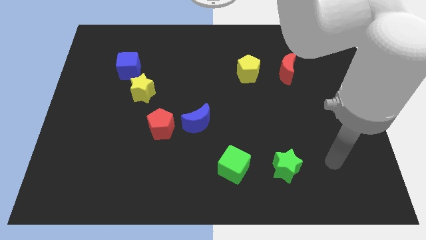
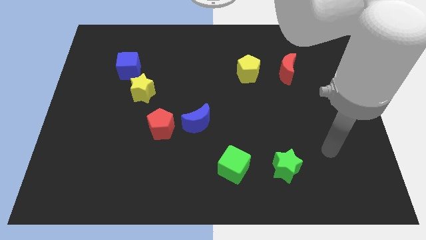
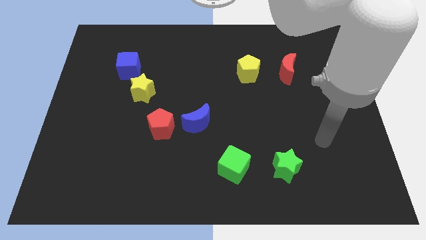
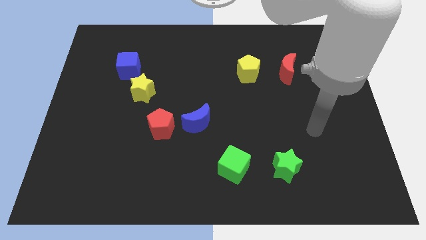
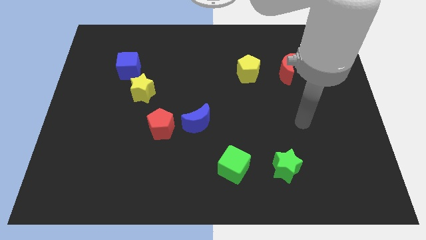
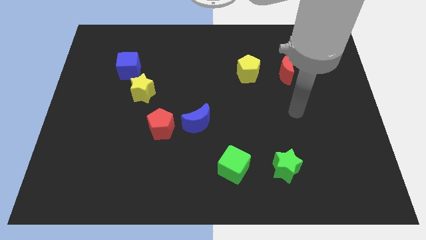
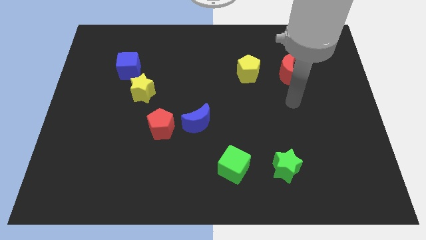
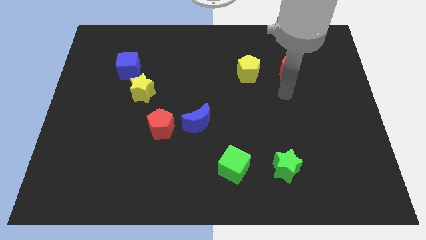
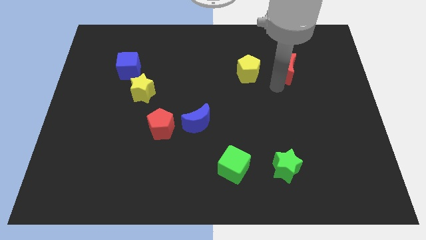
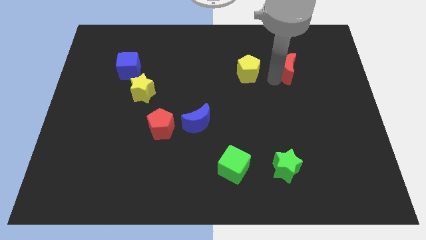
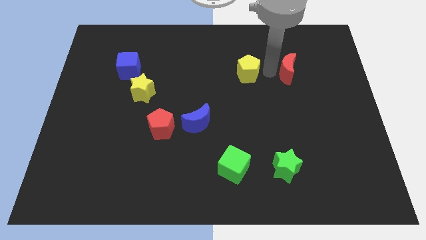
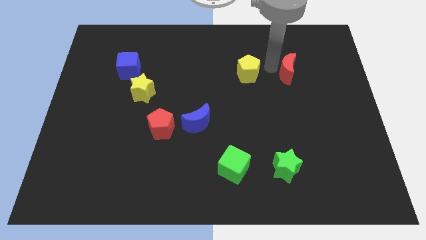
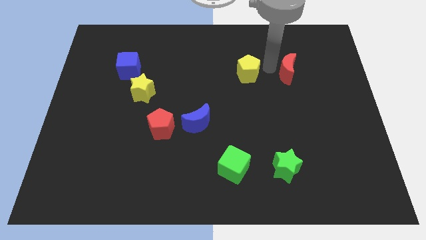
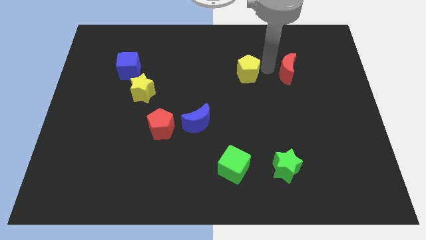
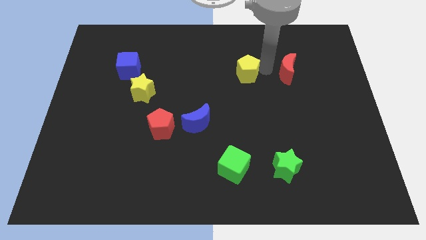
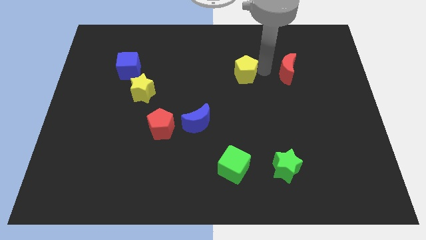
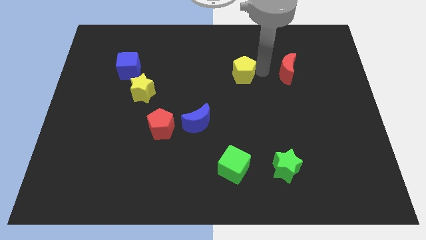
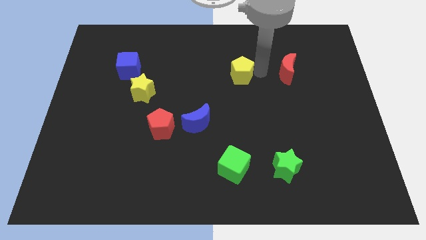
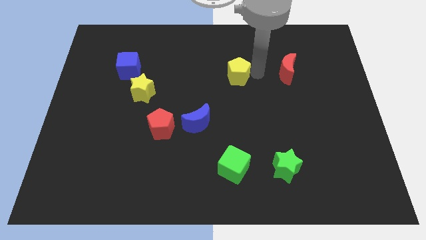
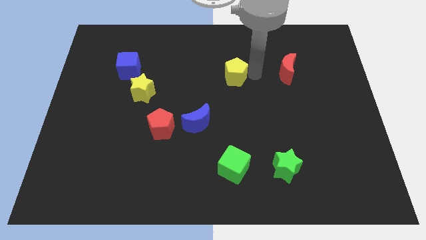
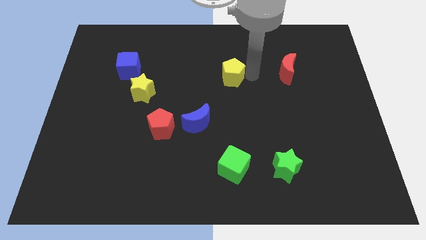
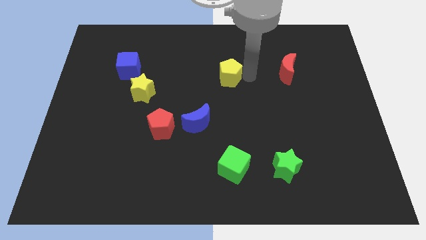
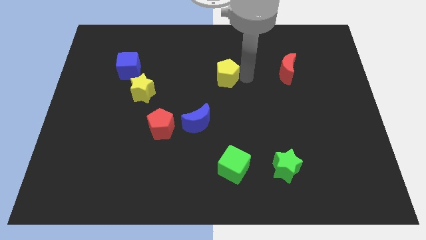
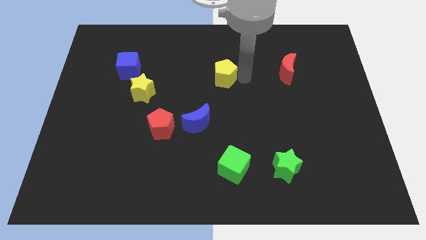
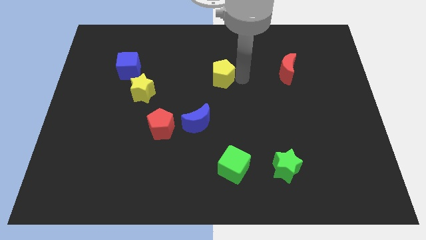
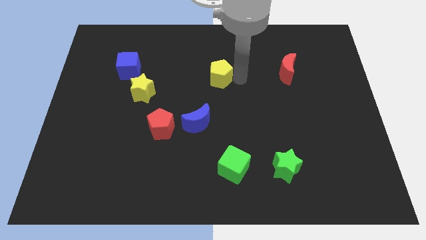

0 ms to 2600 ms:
slightly slide the yellow pentagon left

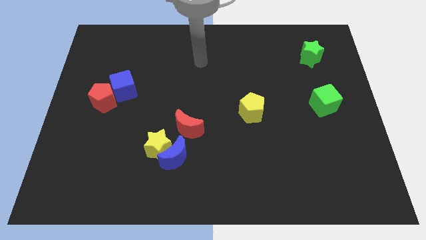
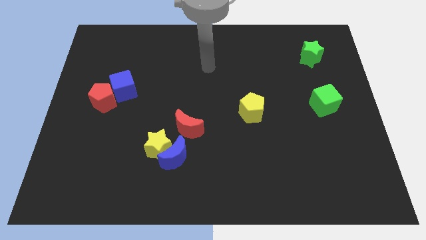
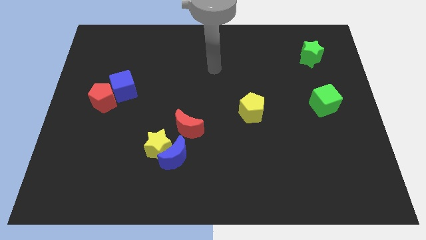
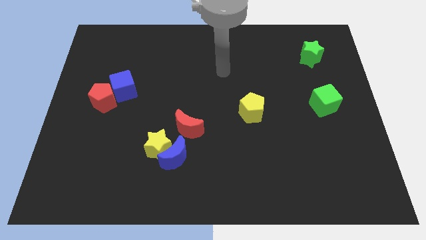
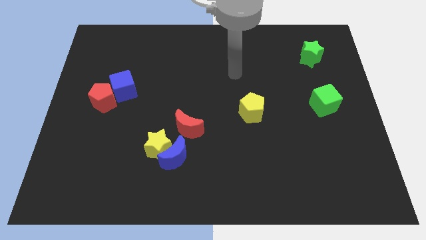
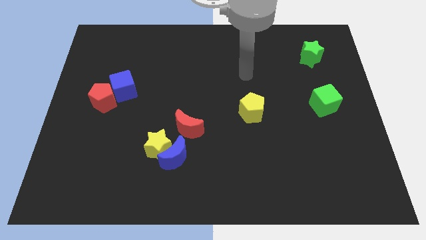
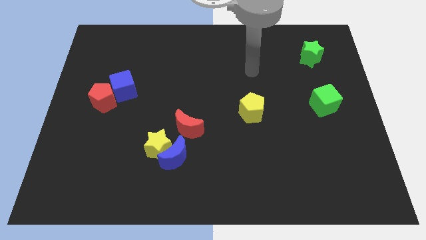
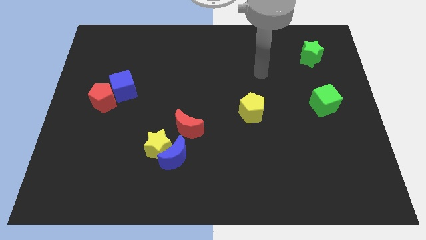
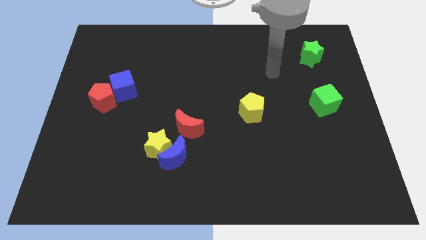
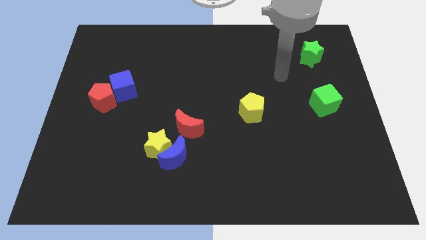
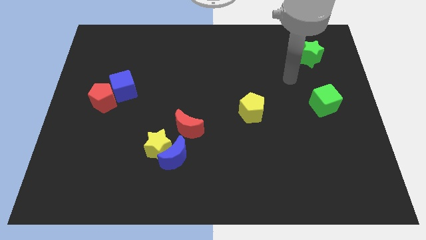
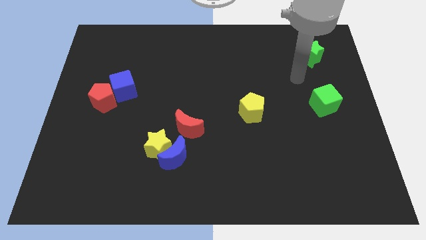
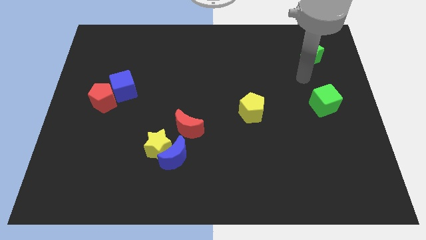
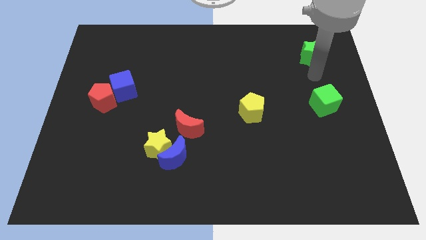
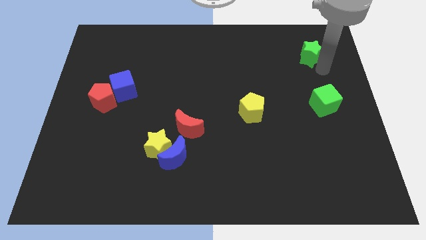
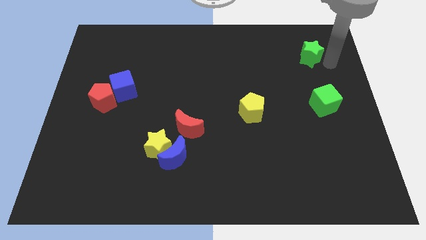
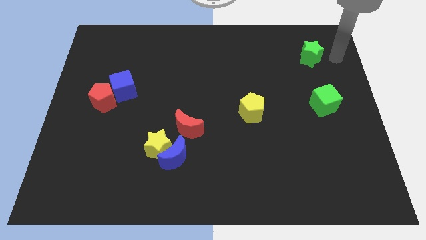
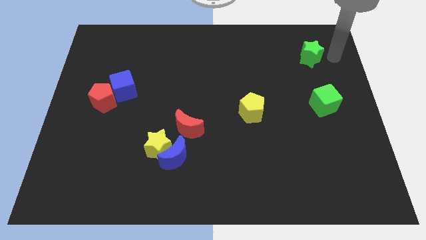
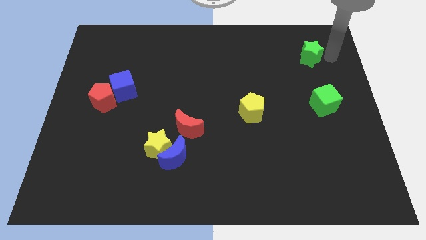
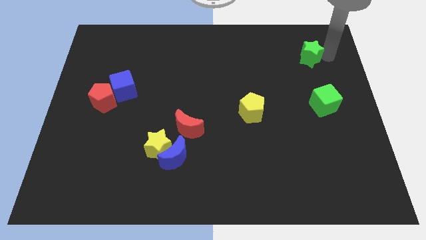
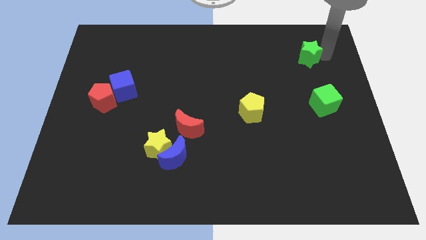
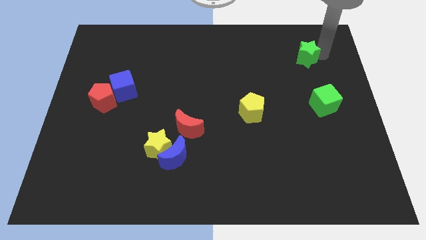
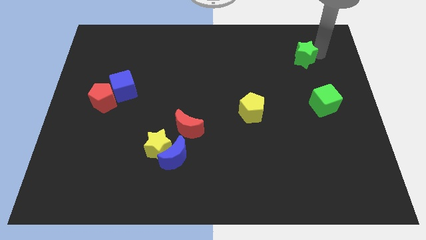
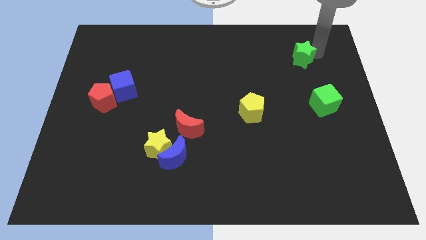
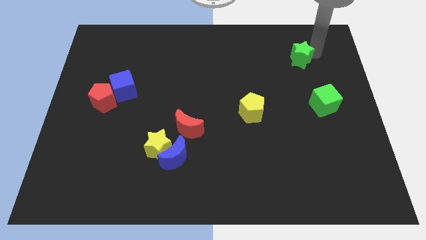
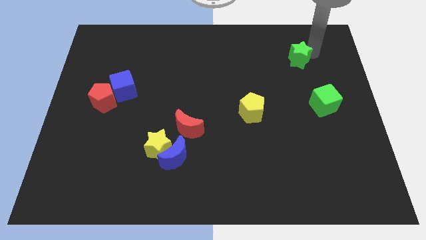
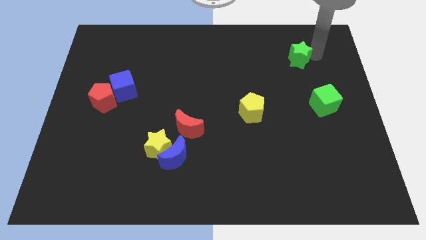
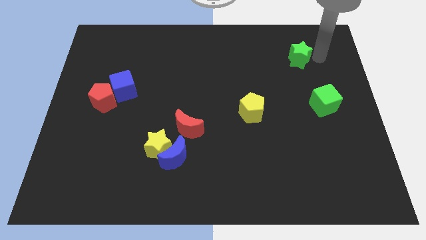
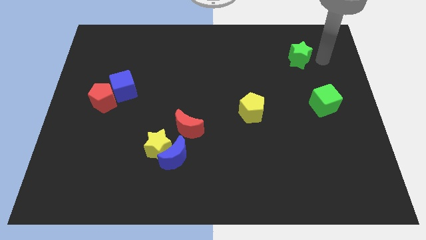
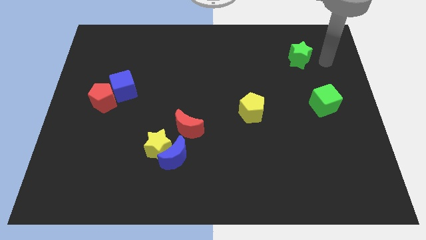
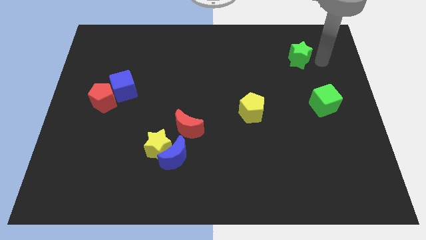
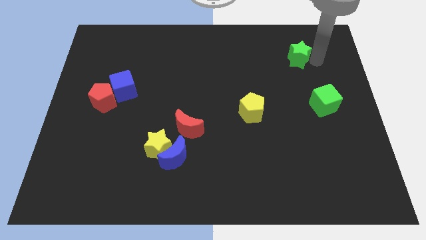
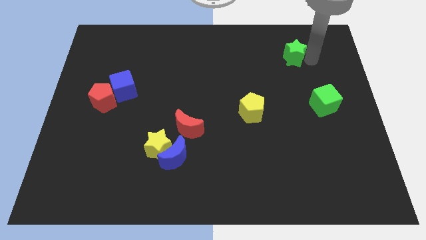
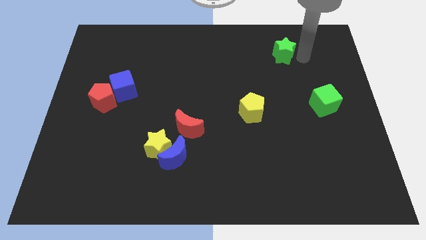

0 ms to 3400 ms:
slightly slide the green star left

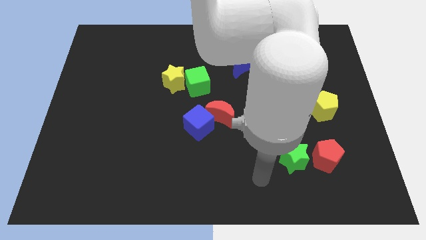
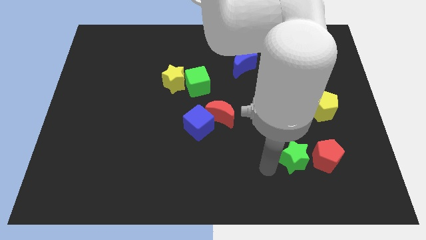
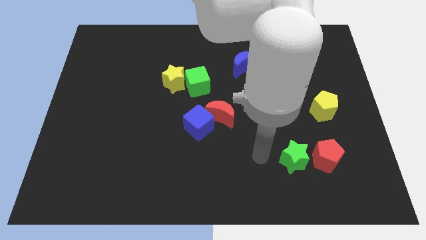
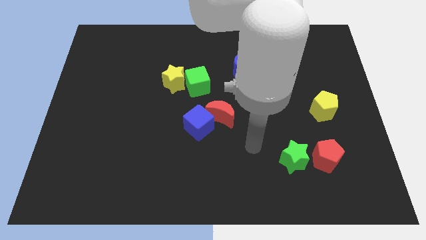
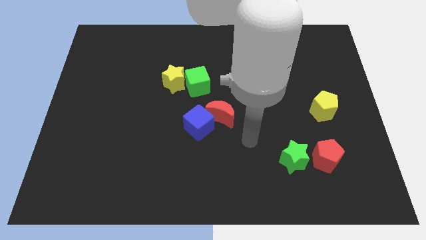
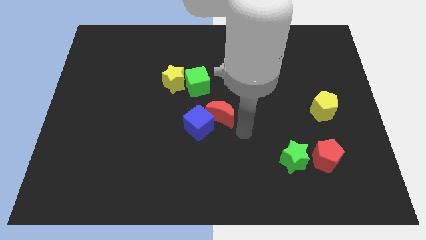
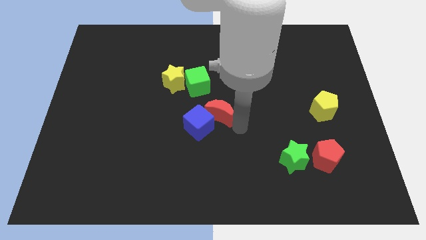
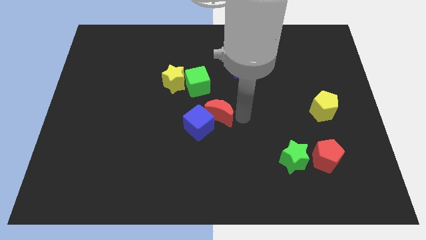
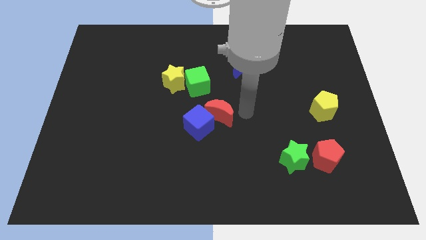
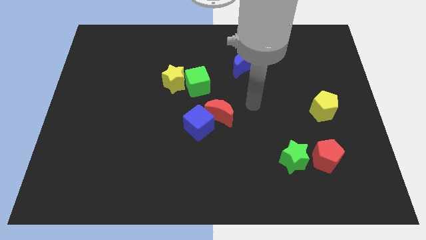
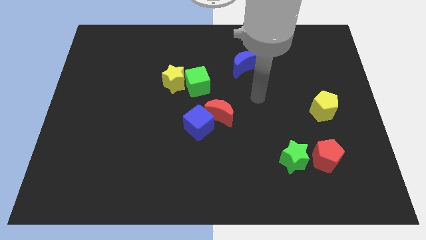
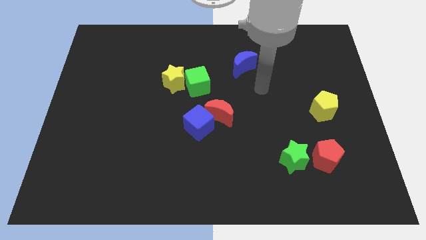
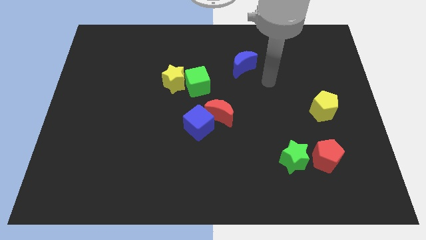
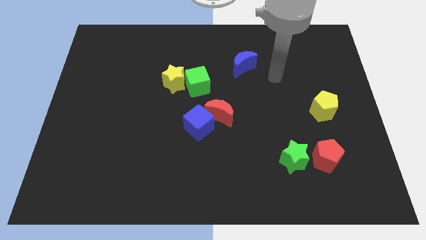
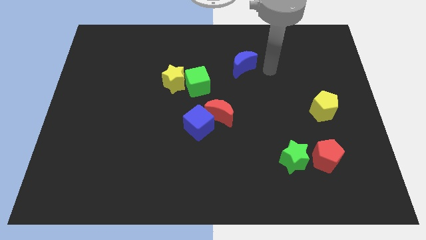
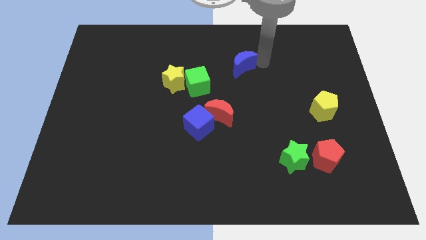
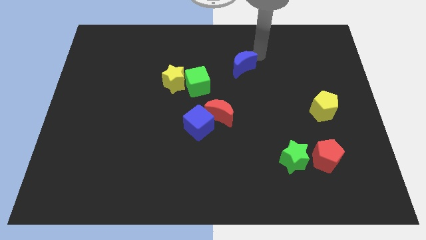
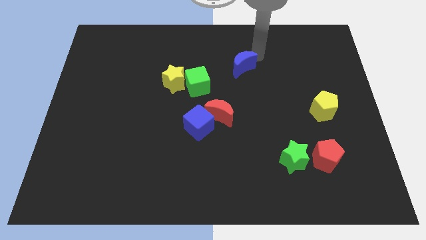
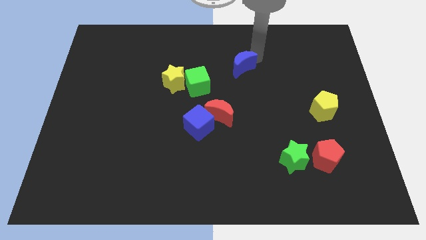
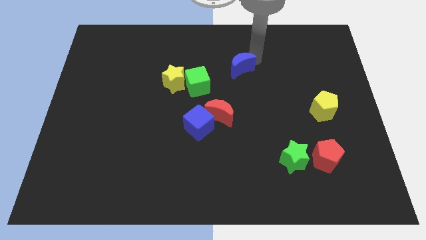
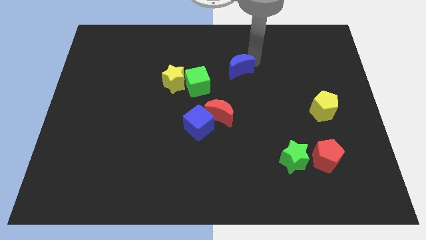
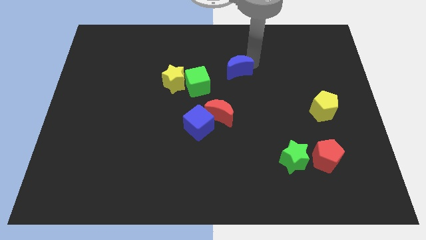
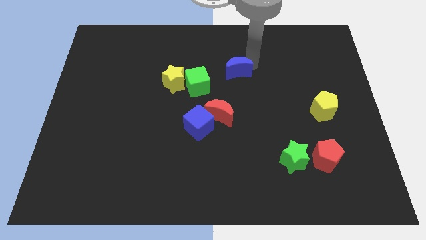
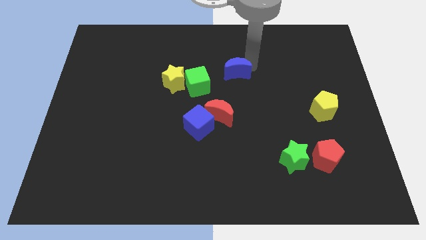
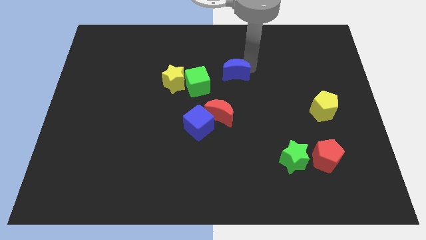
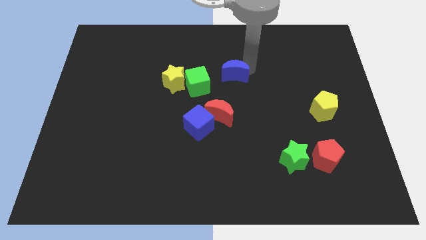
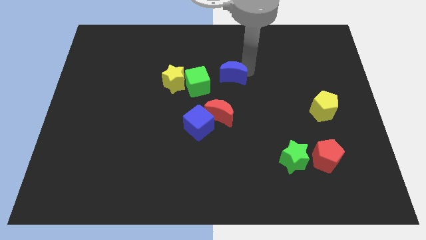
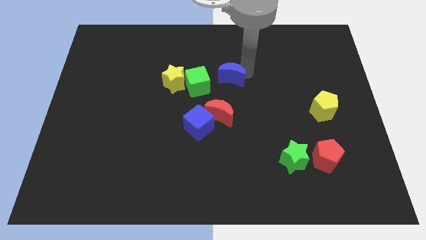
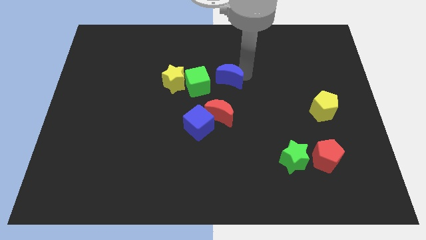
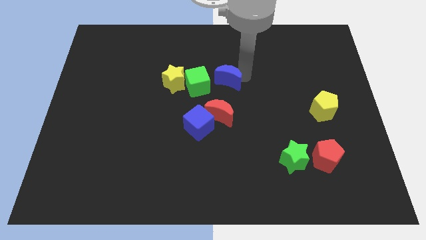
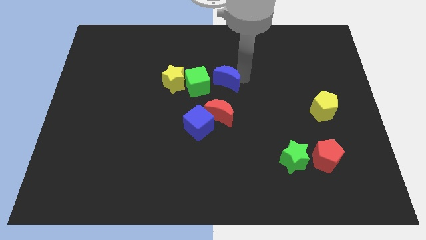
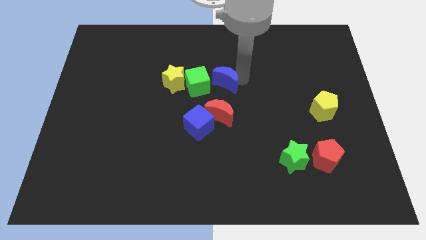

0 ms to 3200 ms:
move the blue moon a little downwards and then to the left
